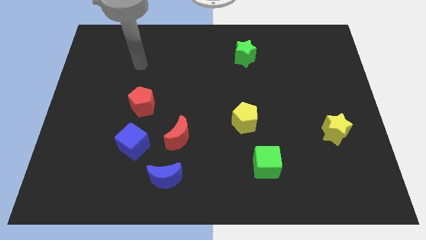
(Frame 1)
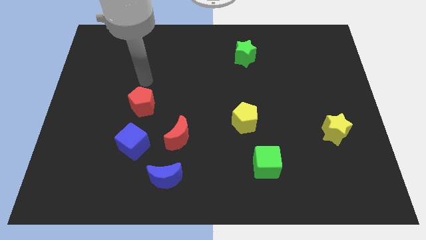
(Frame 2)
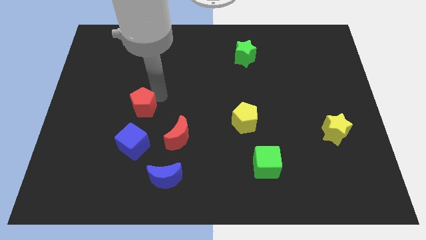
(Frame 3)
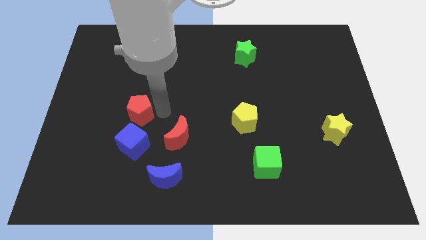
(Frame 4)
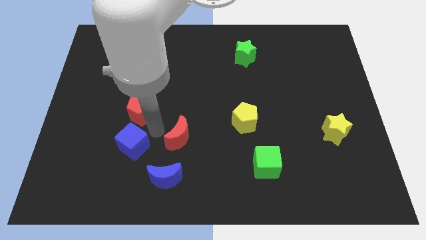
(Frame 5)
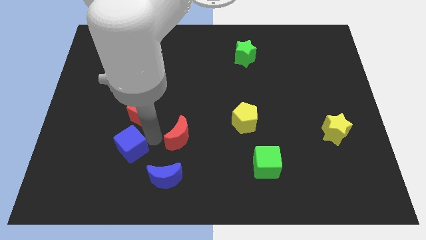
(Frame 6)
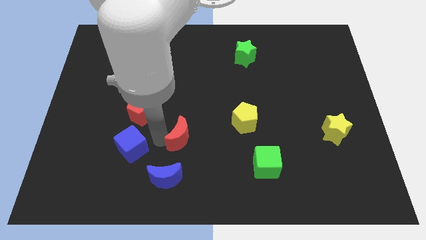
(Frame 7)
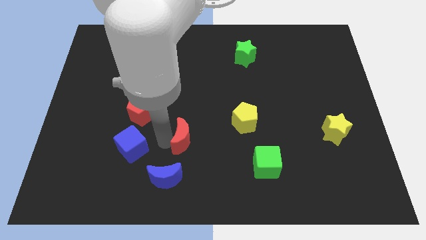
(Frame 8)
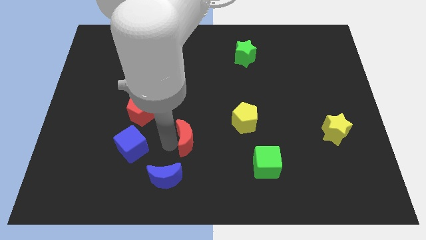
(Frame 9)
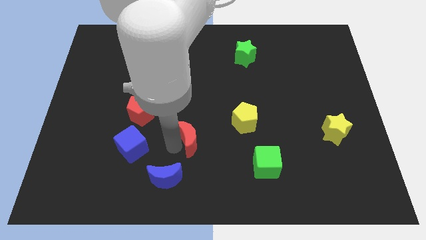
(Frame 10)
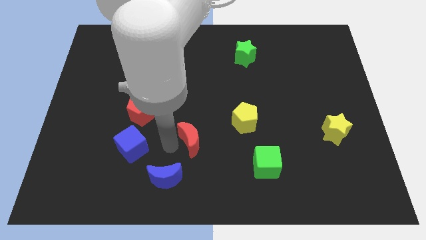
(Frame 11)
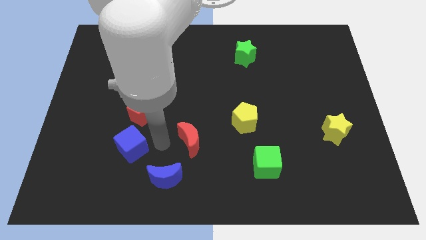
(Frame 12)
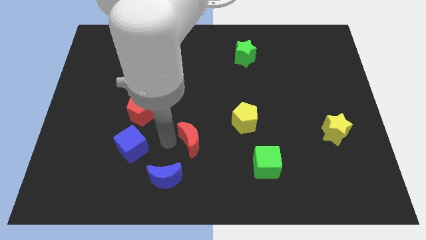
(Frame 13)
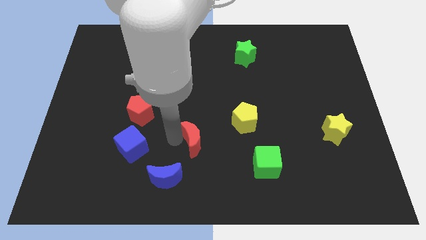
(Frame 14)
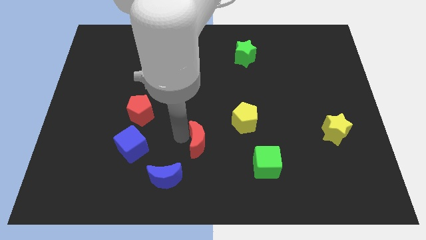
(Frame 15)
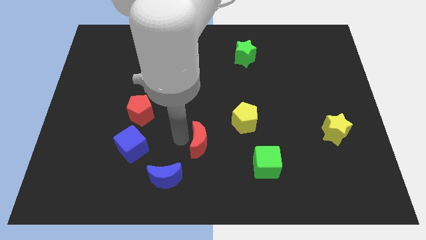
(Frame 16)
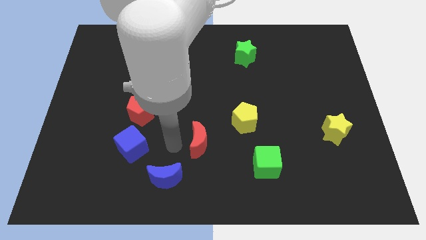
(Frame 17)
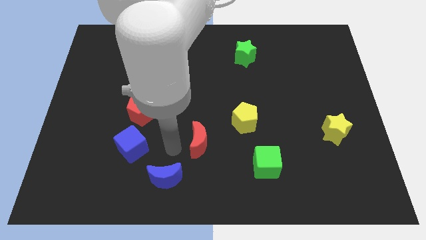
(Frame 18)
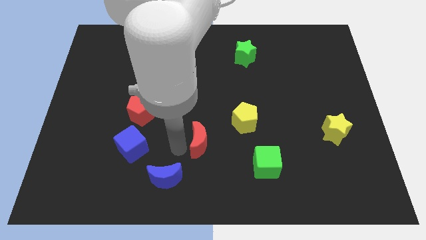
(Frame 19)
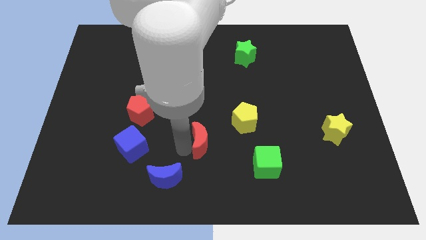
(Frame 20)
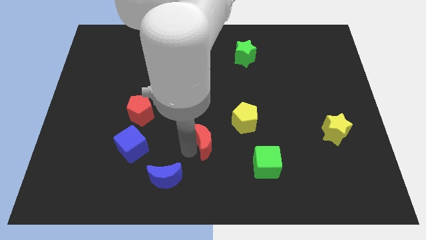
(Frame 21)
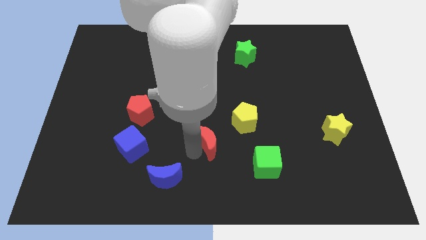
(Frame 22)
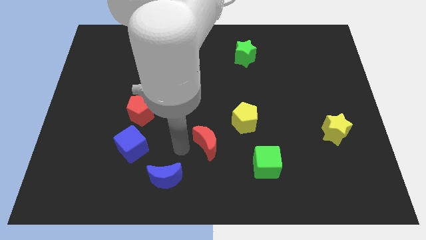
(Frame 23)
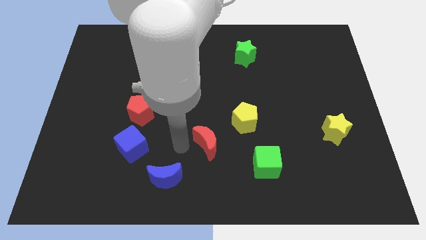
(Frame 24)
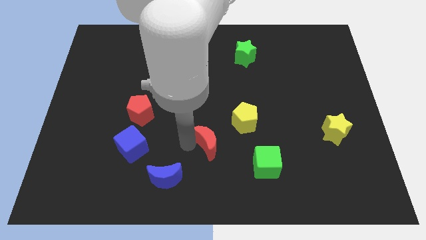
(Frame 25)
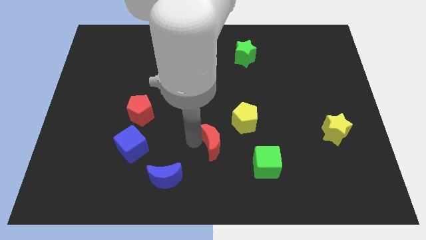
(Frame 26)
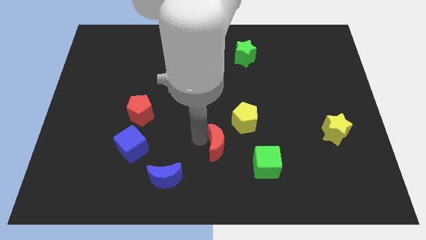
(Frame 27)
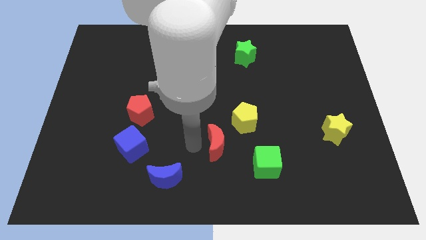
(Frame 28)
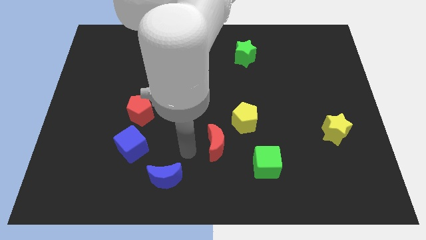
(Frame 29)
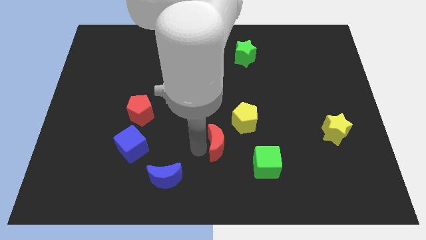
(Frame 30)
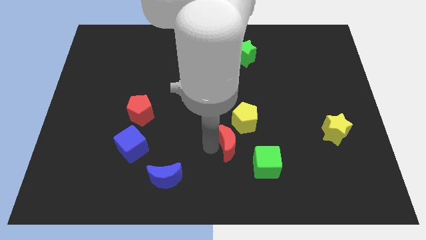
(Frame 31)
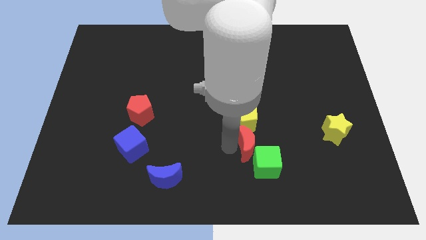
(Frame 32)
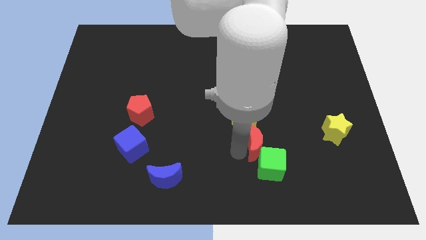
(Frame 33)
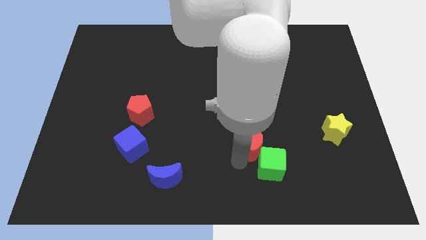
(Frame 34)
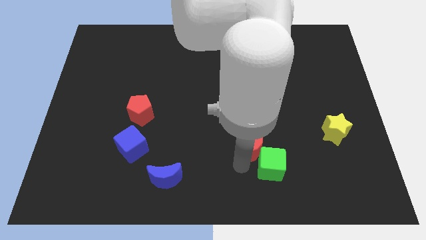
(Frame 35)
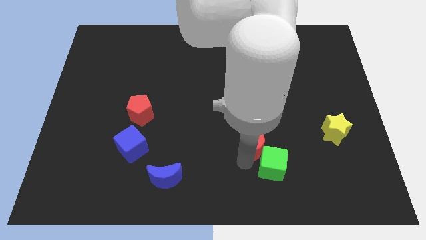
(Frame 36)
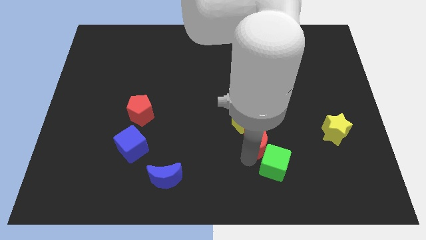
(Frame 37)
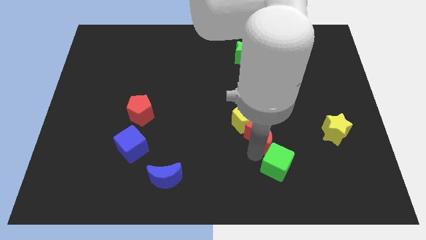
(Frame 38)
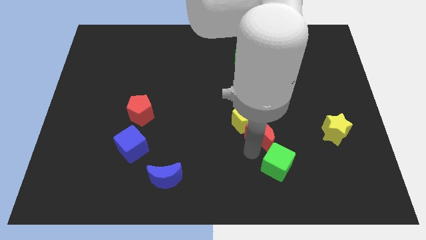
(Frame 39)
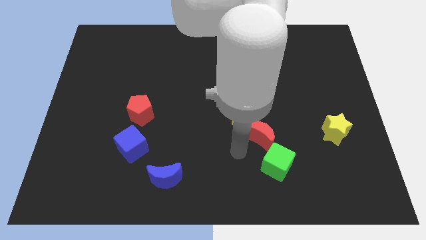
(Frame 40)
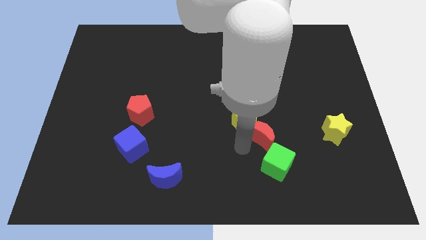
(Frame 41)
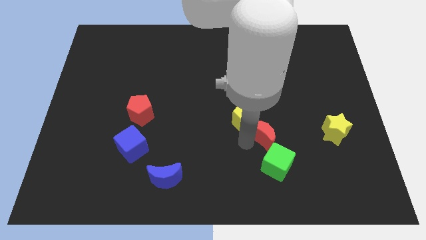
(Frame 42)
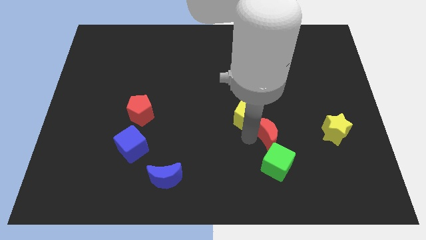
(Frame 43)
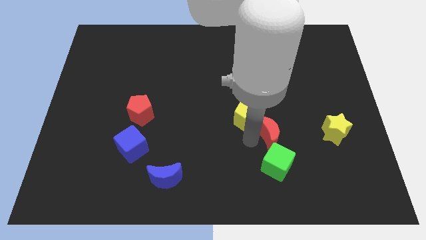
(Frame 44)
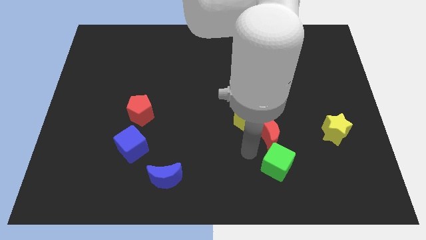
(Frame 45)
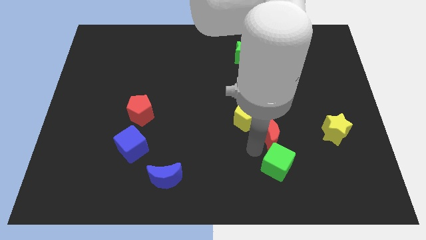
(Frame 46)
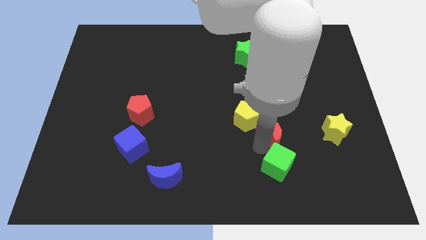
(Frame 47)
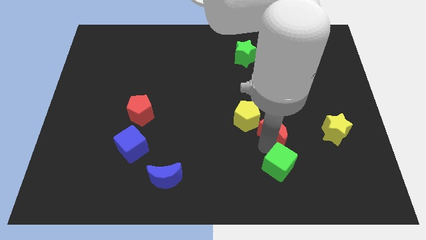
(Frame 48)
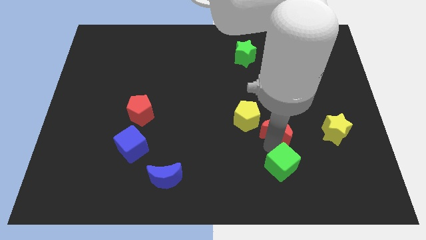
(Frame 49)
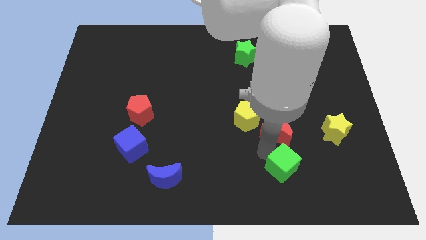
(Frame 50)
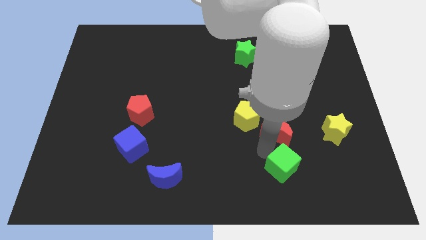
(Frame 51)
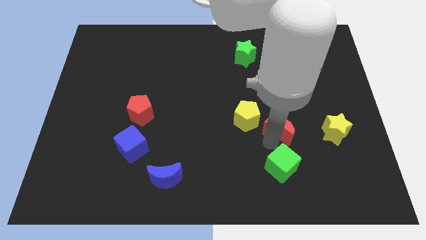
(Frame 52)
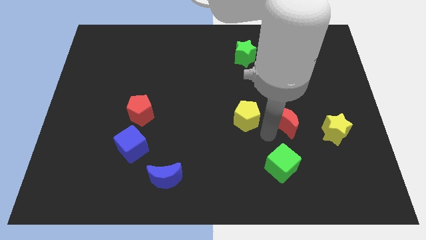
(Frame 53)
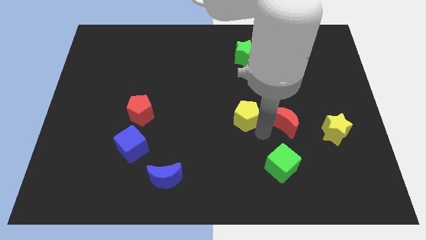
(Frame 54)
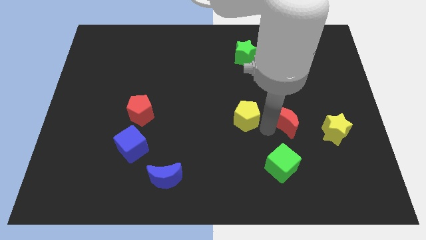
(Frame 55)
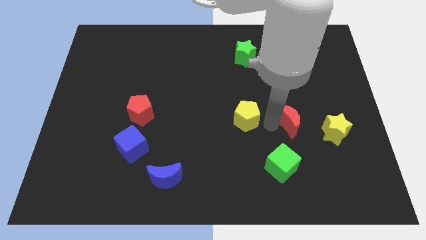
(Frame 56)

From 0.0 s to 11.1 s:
push the red moon diagonally up and to the left of the yellow star

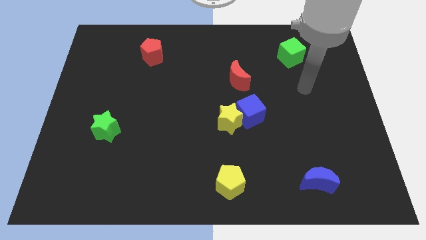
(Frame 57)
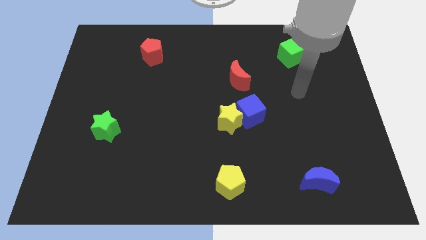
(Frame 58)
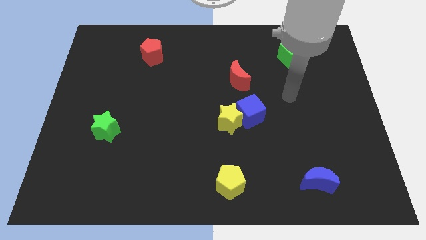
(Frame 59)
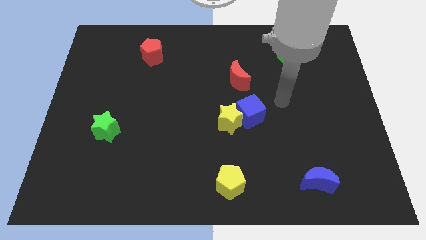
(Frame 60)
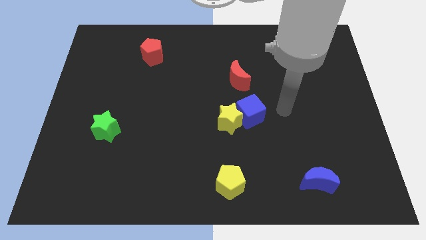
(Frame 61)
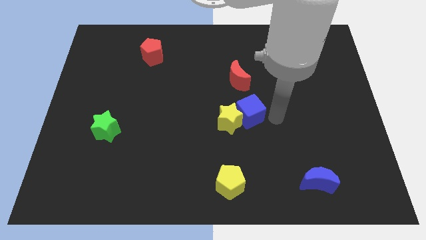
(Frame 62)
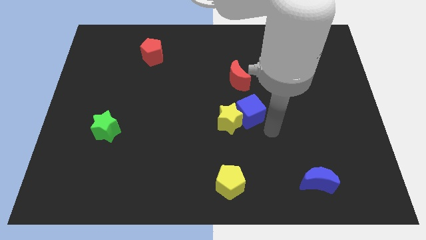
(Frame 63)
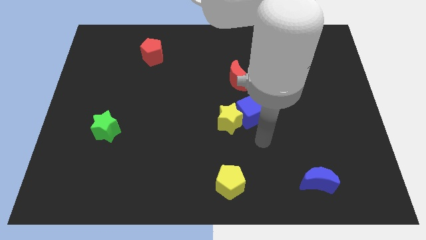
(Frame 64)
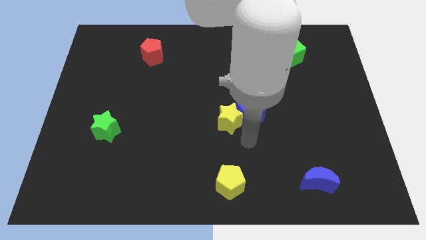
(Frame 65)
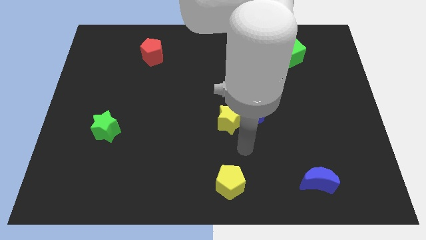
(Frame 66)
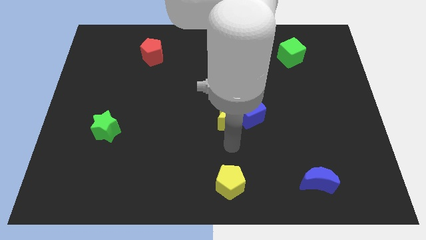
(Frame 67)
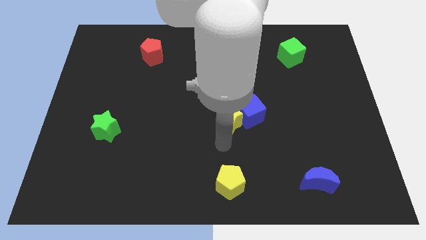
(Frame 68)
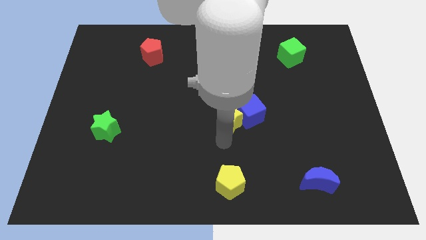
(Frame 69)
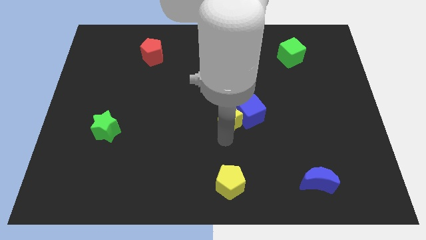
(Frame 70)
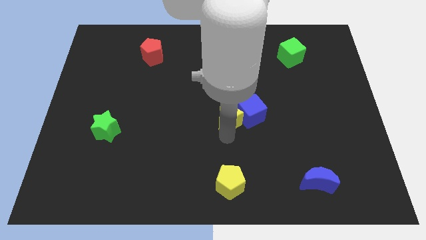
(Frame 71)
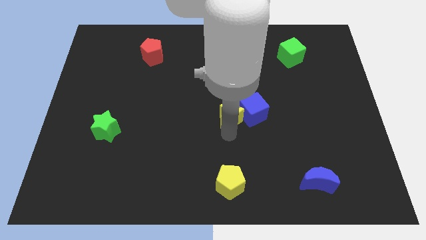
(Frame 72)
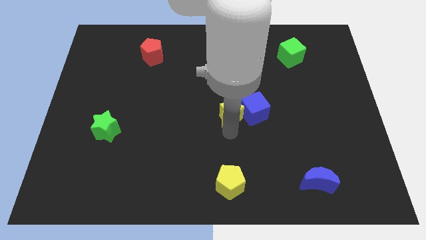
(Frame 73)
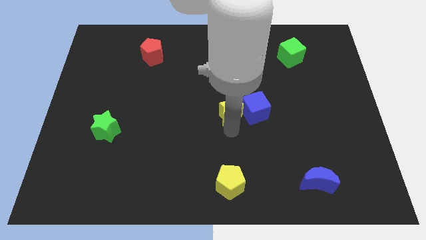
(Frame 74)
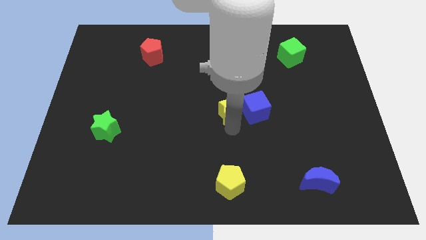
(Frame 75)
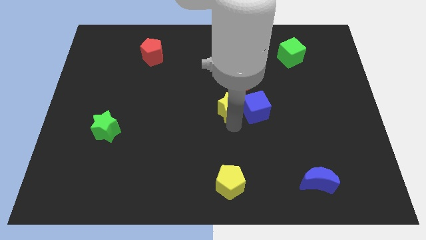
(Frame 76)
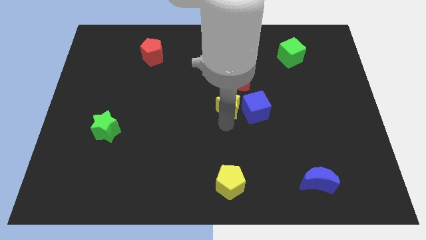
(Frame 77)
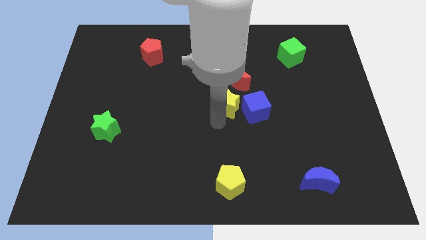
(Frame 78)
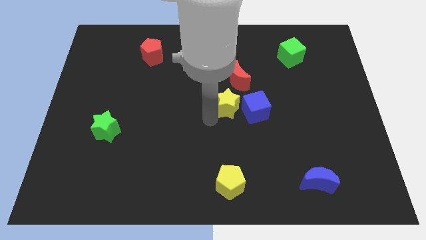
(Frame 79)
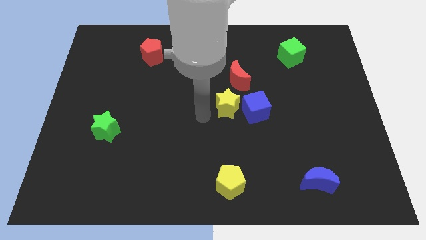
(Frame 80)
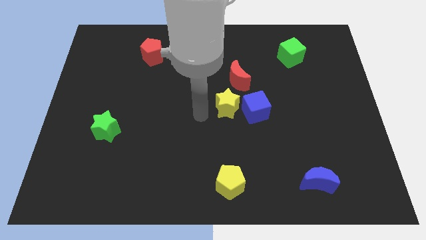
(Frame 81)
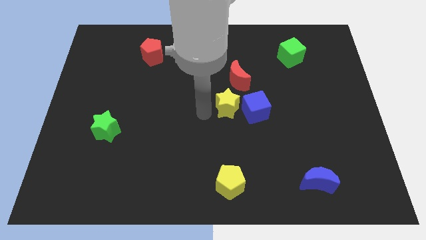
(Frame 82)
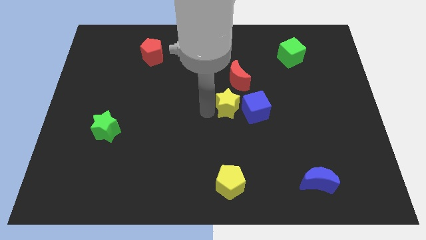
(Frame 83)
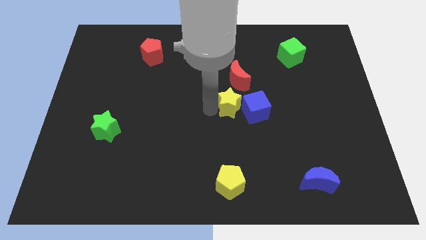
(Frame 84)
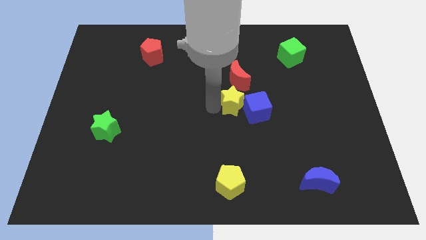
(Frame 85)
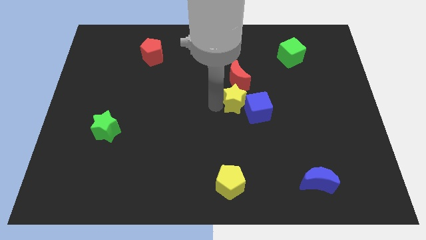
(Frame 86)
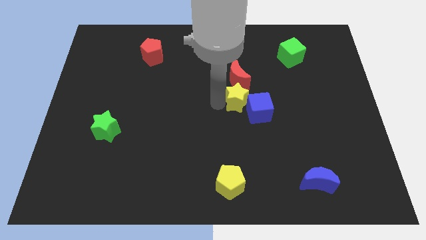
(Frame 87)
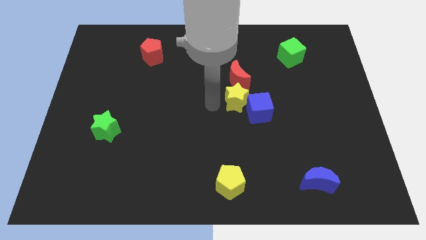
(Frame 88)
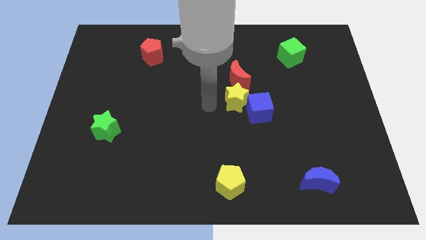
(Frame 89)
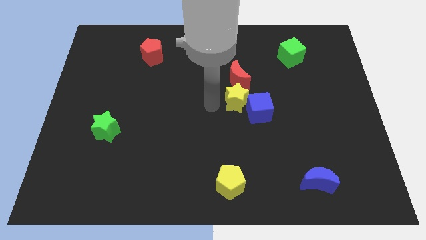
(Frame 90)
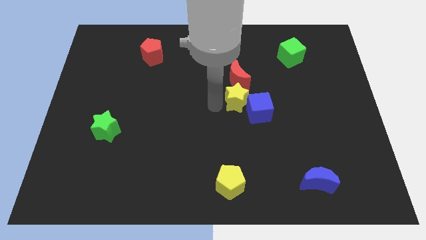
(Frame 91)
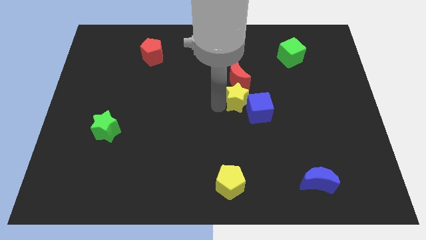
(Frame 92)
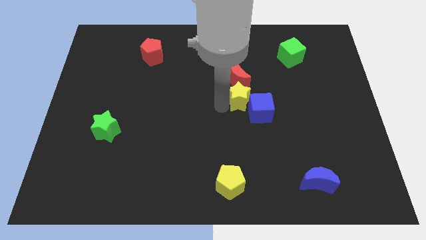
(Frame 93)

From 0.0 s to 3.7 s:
slide the yellow star to the bottom right side of the red moon
